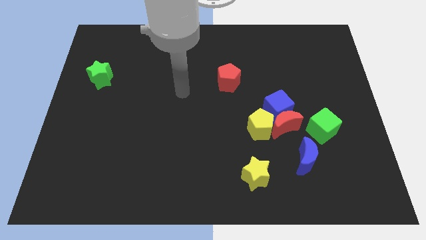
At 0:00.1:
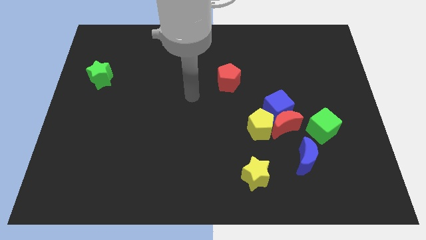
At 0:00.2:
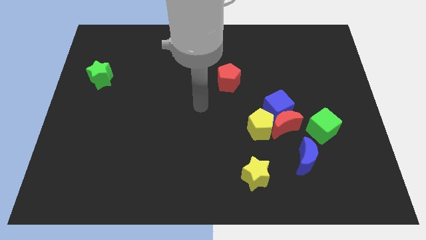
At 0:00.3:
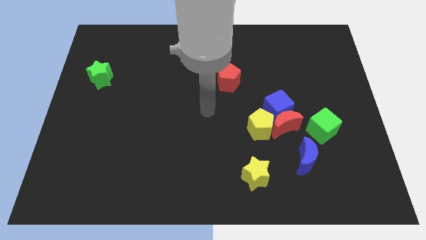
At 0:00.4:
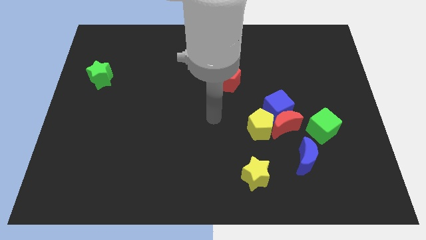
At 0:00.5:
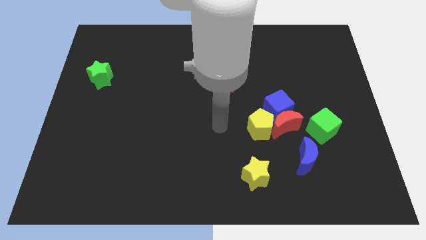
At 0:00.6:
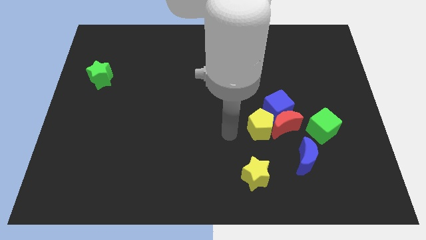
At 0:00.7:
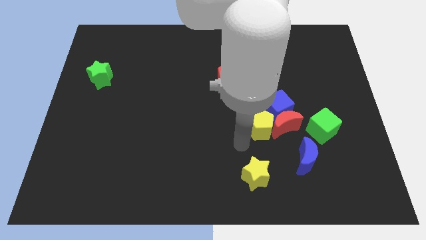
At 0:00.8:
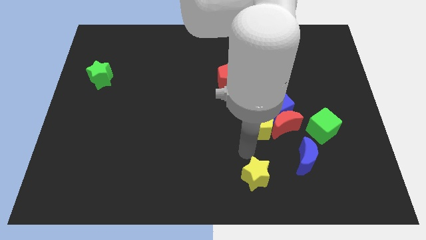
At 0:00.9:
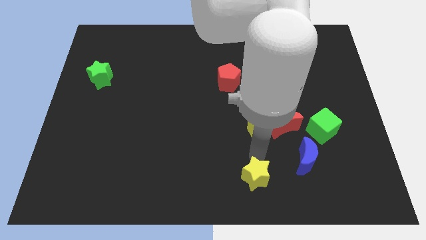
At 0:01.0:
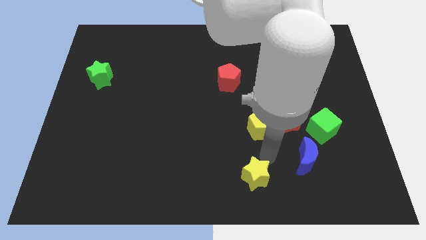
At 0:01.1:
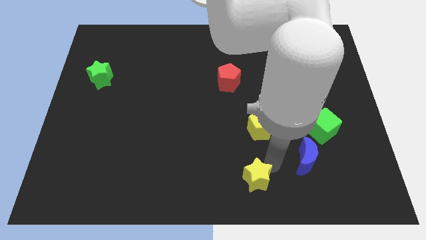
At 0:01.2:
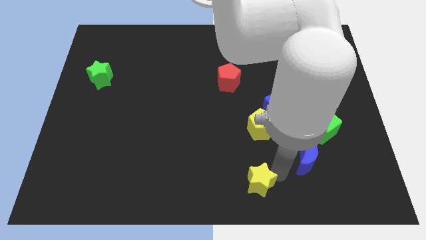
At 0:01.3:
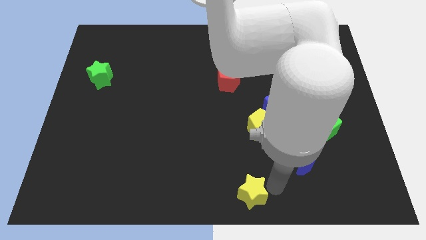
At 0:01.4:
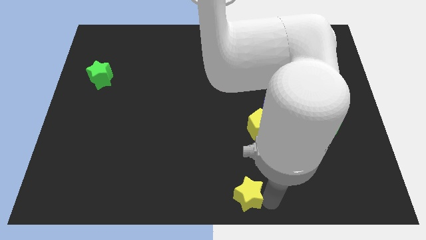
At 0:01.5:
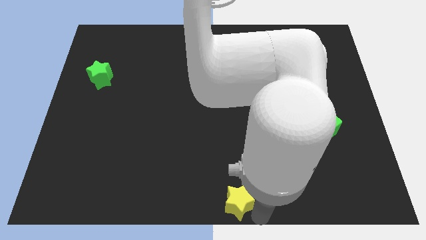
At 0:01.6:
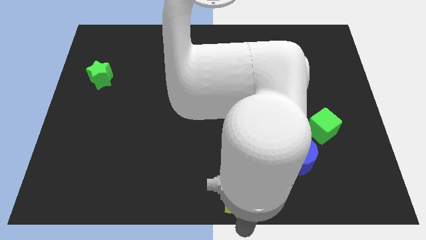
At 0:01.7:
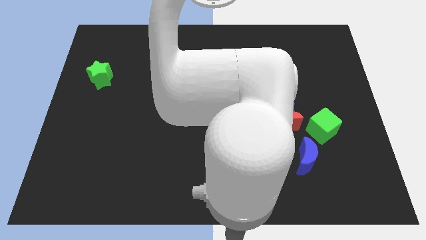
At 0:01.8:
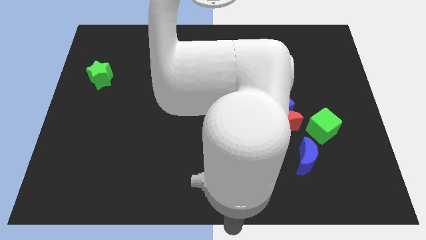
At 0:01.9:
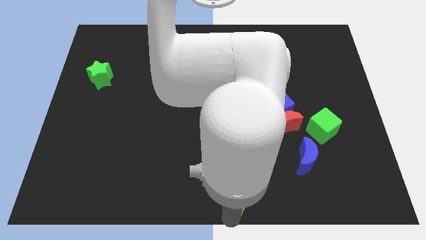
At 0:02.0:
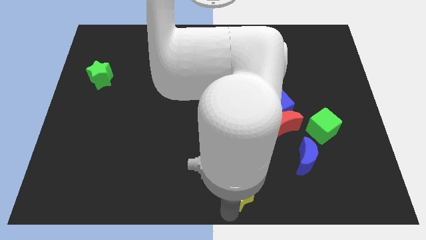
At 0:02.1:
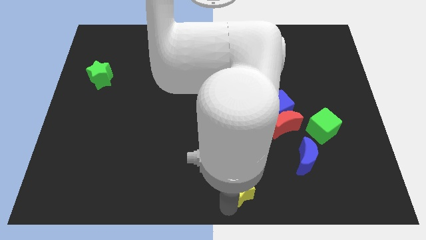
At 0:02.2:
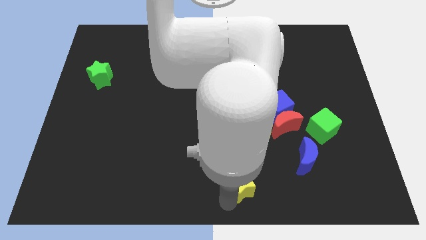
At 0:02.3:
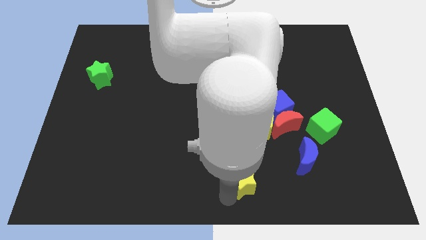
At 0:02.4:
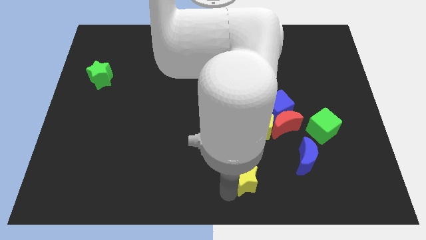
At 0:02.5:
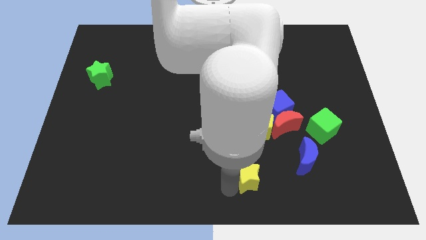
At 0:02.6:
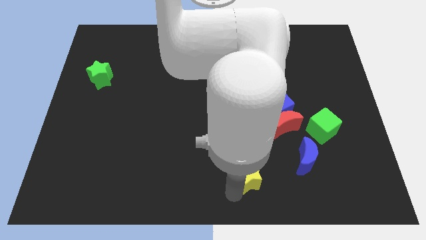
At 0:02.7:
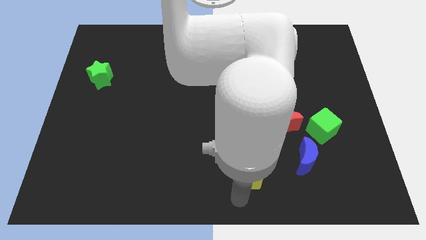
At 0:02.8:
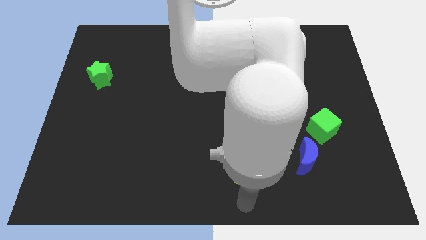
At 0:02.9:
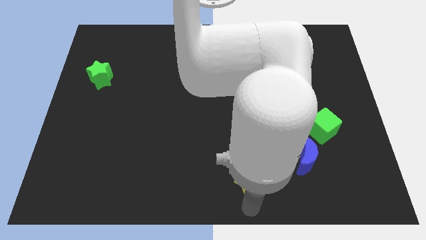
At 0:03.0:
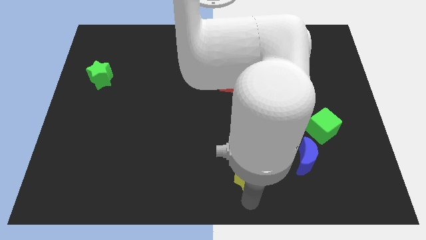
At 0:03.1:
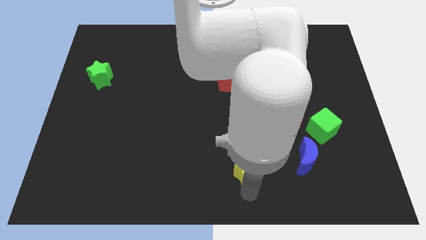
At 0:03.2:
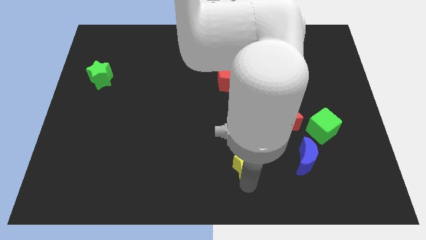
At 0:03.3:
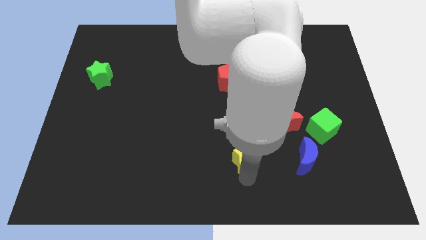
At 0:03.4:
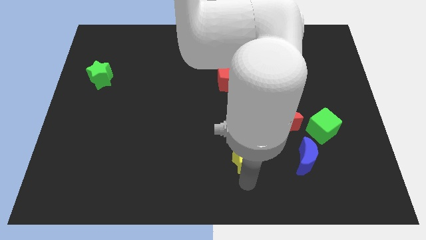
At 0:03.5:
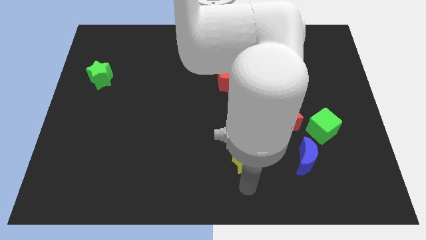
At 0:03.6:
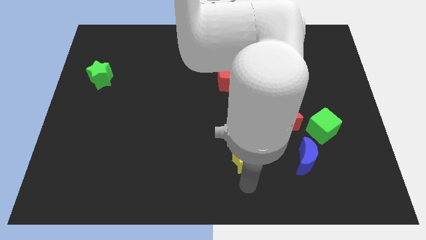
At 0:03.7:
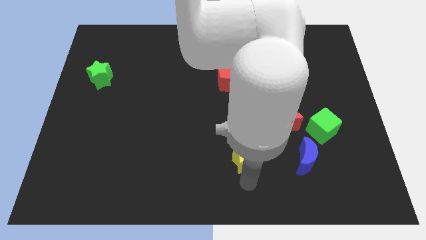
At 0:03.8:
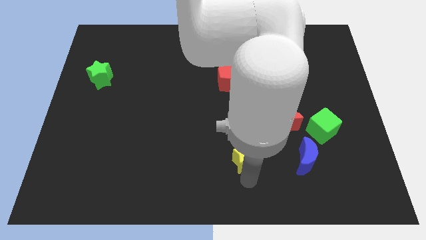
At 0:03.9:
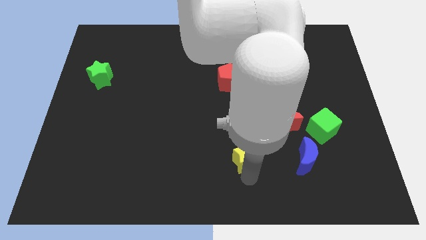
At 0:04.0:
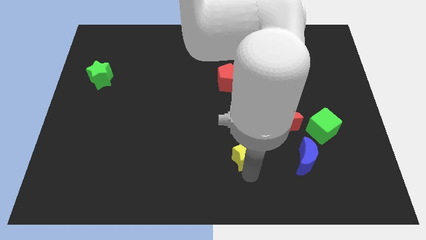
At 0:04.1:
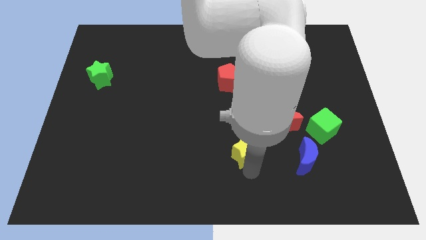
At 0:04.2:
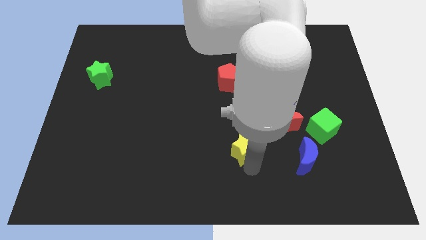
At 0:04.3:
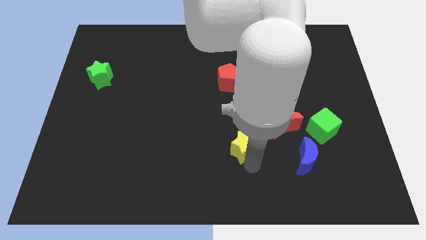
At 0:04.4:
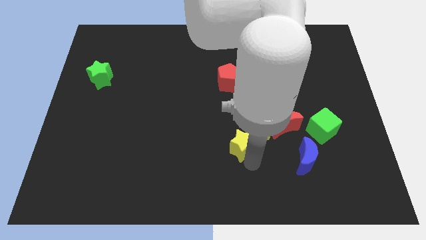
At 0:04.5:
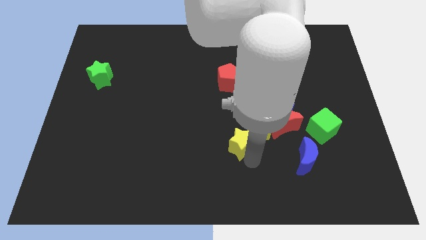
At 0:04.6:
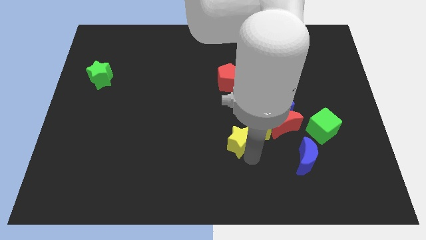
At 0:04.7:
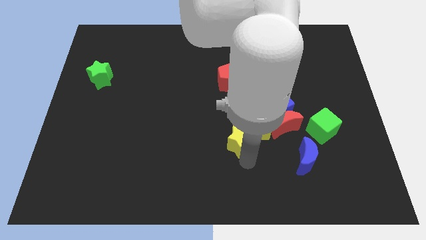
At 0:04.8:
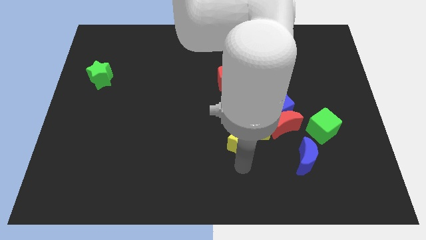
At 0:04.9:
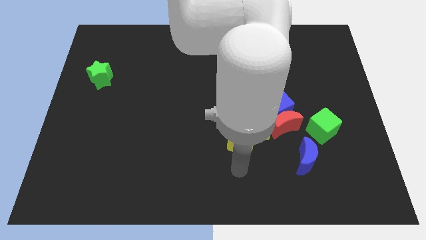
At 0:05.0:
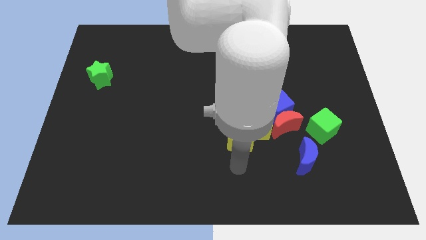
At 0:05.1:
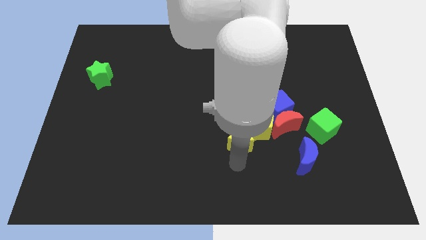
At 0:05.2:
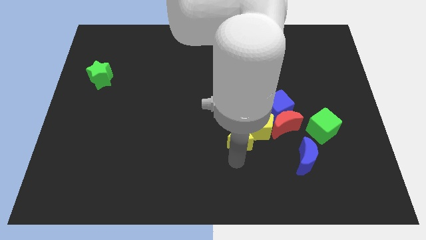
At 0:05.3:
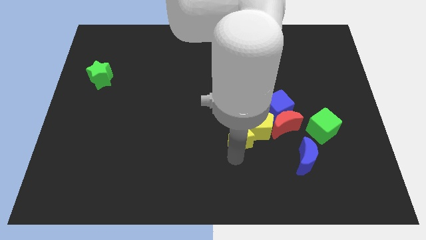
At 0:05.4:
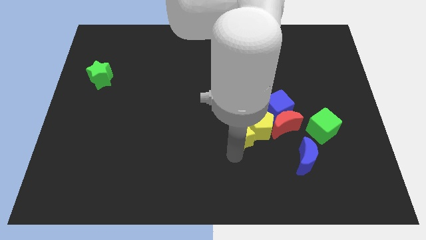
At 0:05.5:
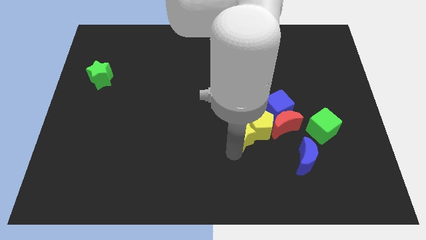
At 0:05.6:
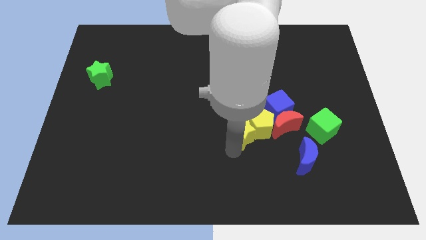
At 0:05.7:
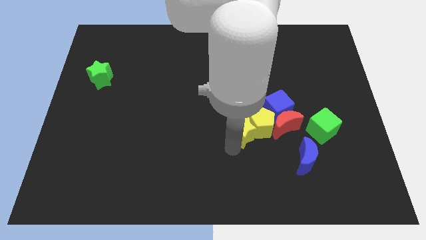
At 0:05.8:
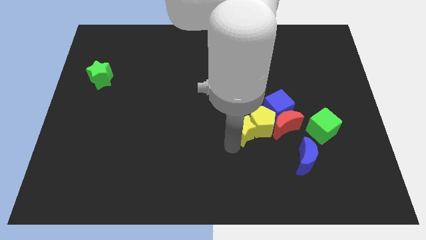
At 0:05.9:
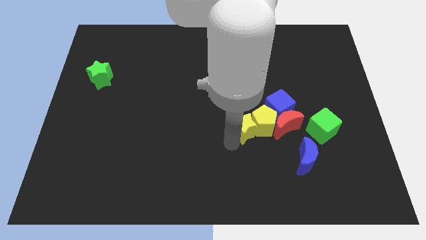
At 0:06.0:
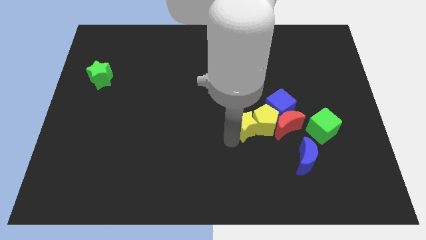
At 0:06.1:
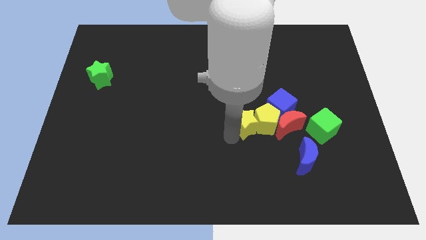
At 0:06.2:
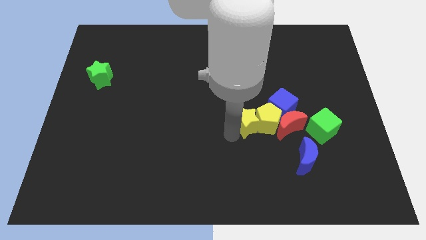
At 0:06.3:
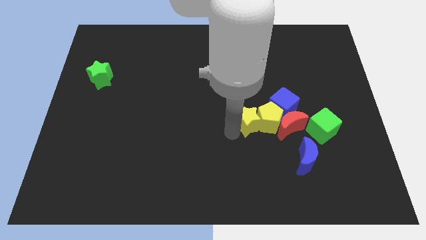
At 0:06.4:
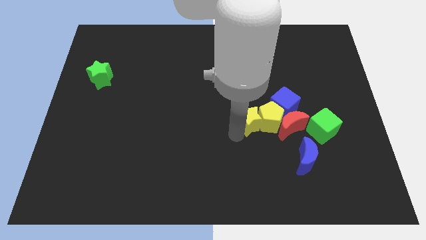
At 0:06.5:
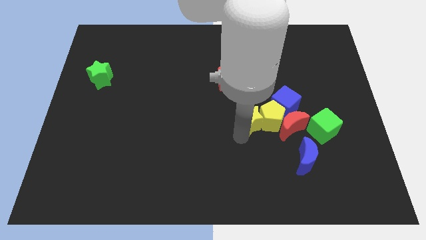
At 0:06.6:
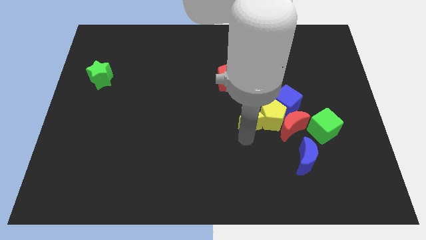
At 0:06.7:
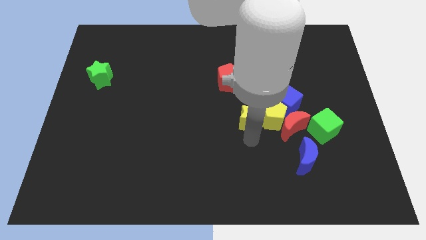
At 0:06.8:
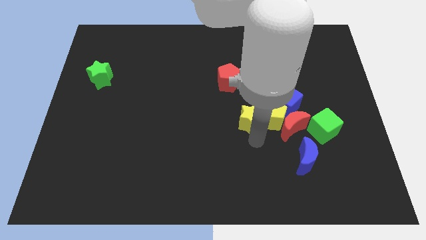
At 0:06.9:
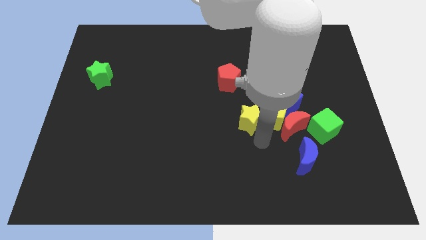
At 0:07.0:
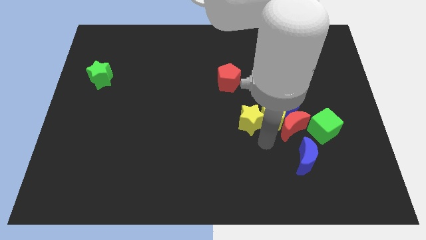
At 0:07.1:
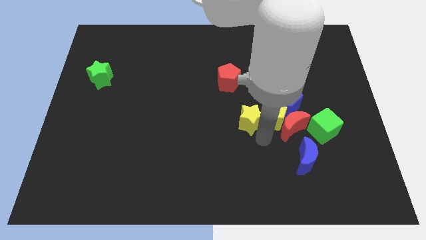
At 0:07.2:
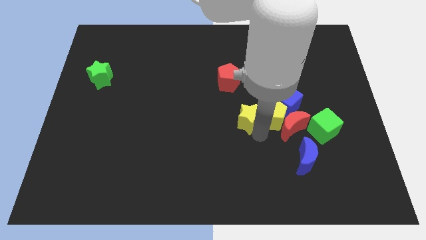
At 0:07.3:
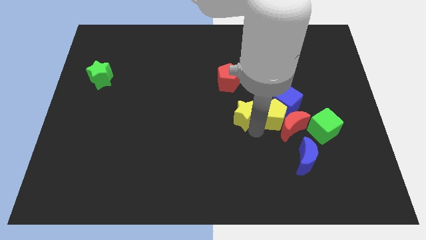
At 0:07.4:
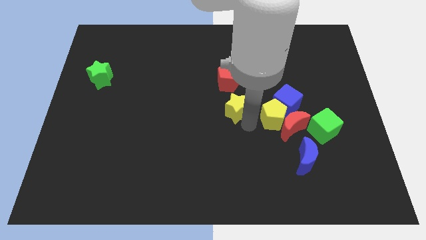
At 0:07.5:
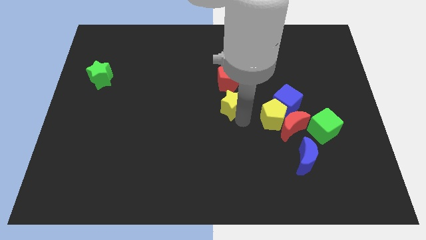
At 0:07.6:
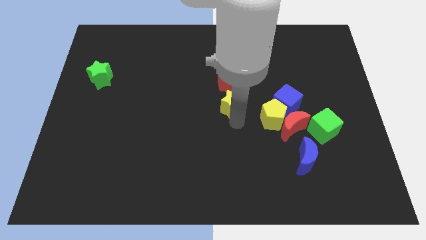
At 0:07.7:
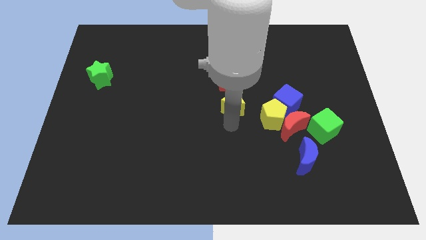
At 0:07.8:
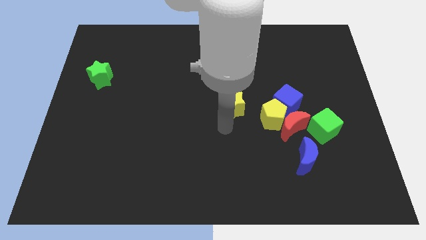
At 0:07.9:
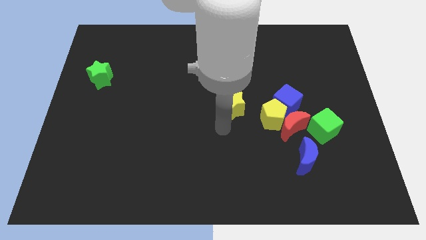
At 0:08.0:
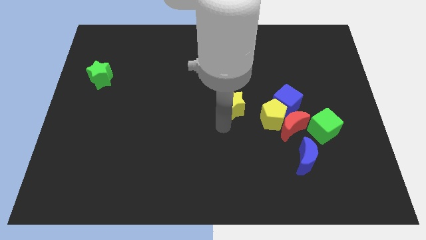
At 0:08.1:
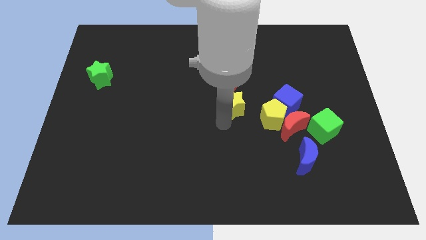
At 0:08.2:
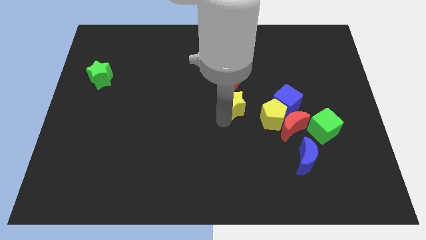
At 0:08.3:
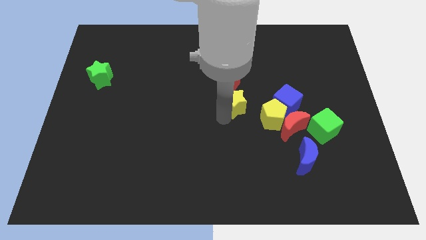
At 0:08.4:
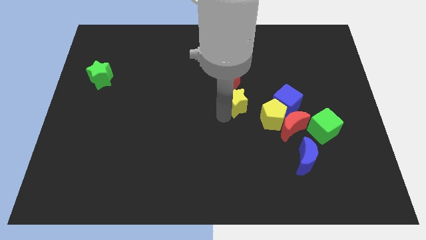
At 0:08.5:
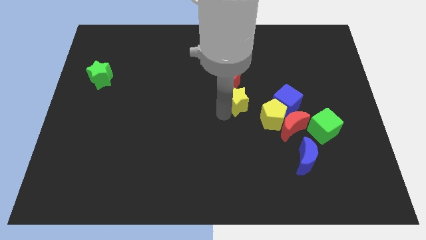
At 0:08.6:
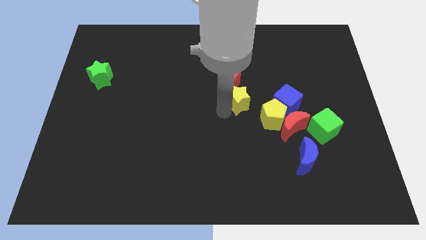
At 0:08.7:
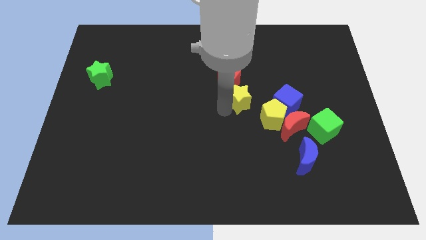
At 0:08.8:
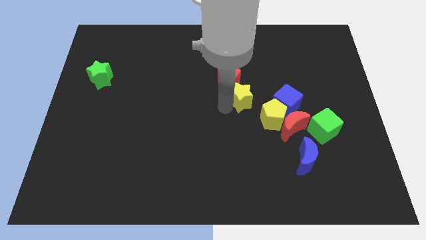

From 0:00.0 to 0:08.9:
push the yellow star upwards
